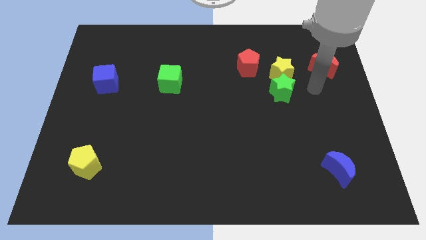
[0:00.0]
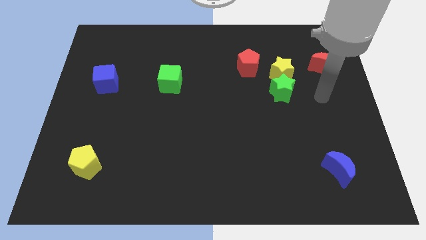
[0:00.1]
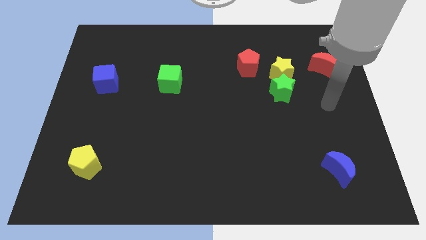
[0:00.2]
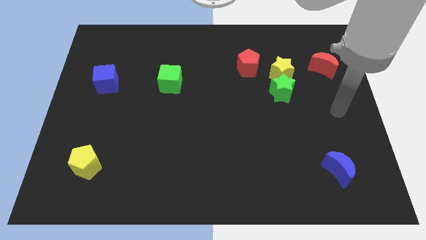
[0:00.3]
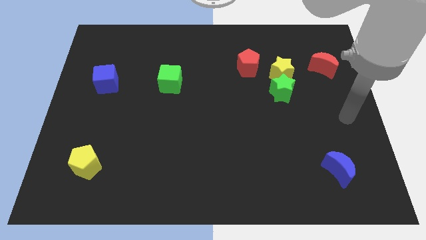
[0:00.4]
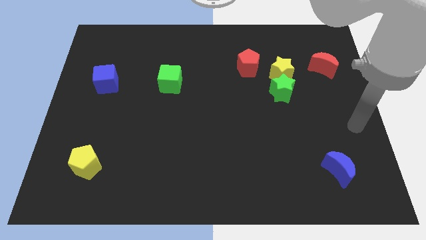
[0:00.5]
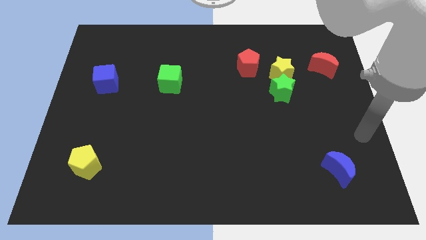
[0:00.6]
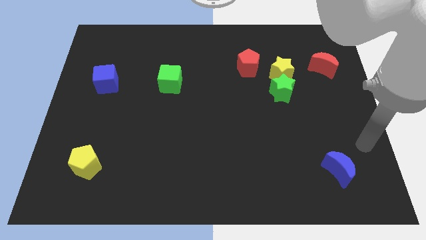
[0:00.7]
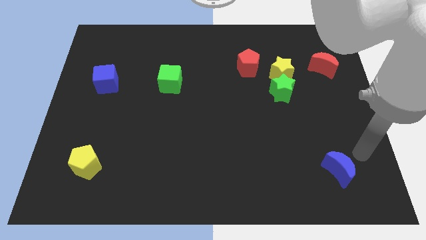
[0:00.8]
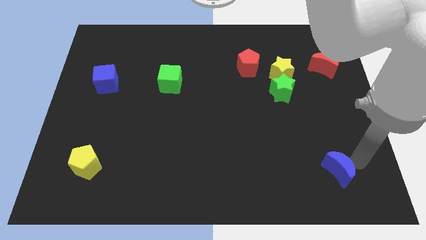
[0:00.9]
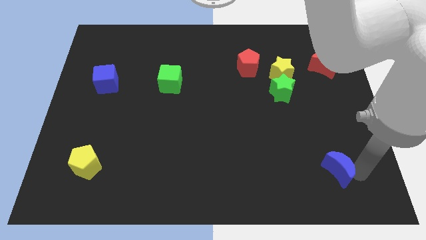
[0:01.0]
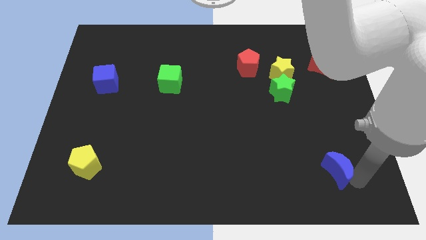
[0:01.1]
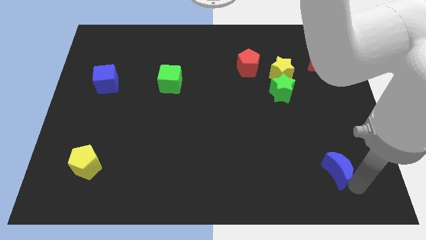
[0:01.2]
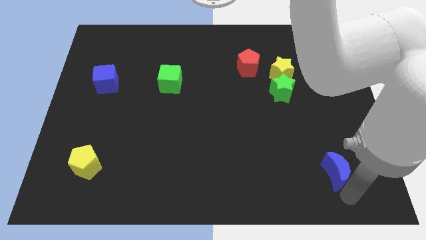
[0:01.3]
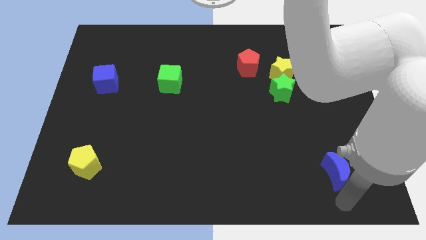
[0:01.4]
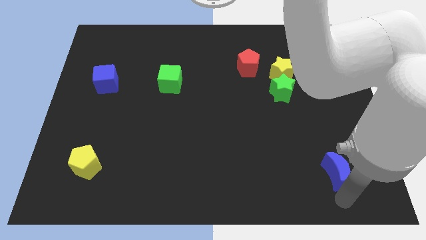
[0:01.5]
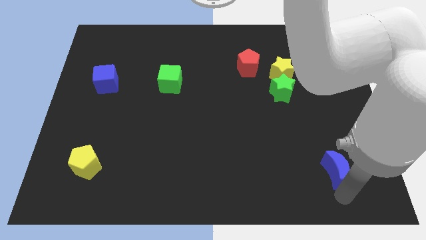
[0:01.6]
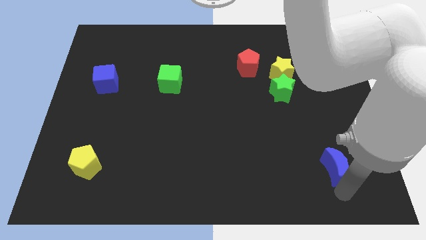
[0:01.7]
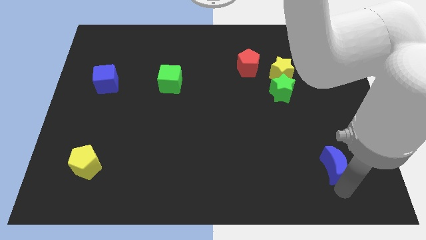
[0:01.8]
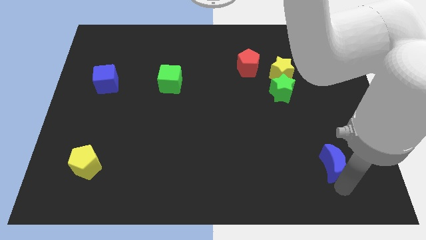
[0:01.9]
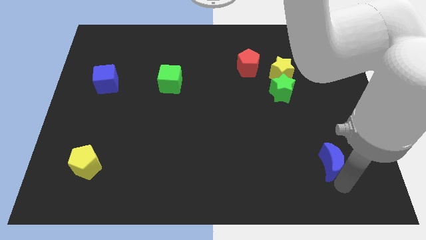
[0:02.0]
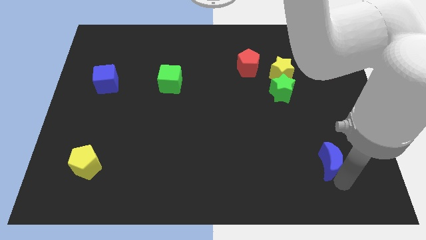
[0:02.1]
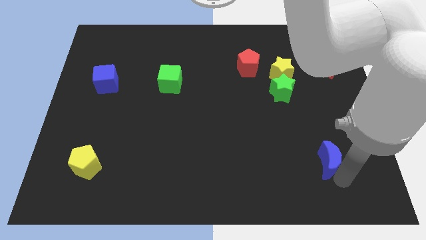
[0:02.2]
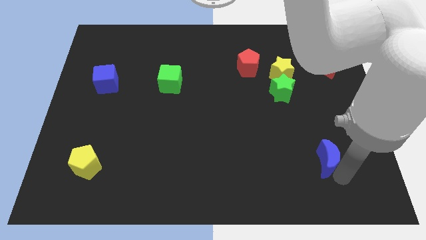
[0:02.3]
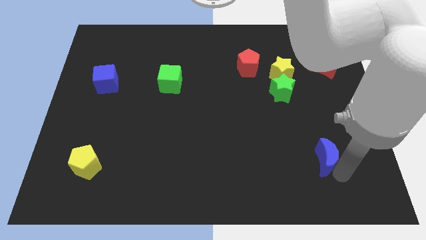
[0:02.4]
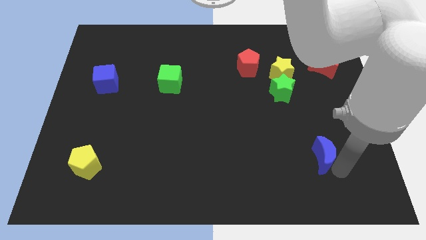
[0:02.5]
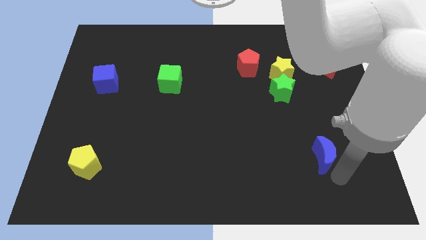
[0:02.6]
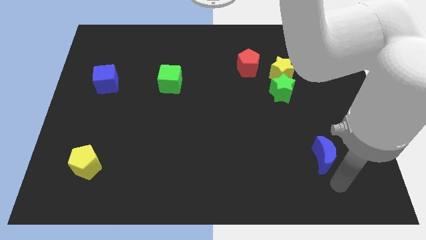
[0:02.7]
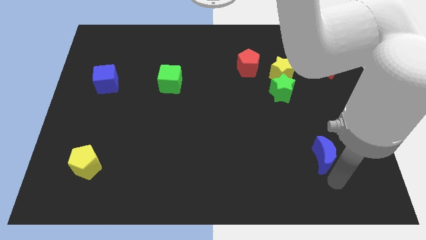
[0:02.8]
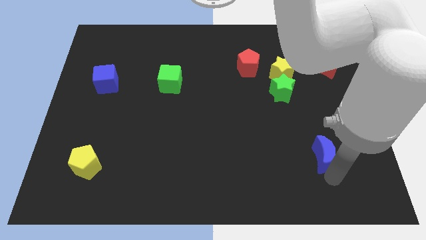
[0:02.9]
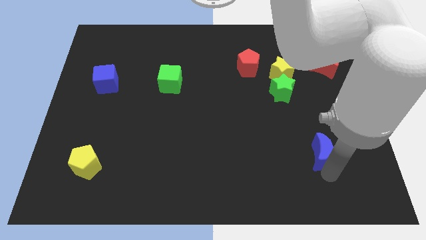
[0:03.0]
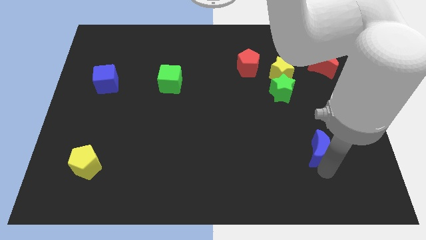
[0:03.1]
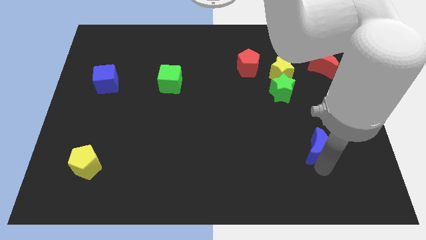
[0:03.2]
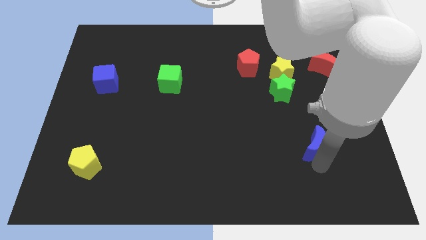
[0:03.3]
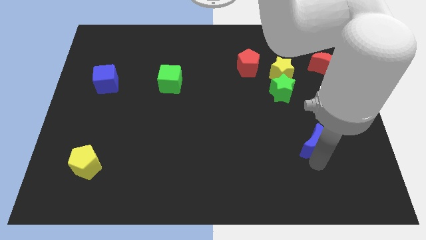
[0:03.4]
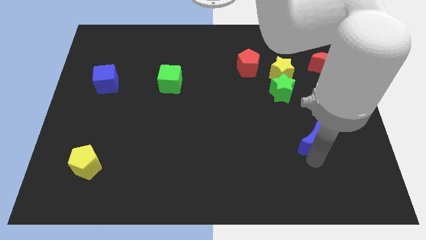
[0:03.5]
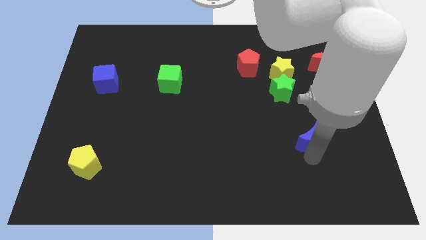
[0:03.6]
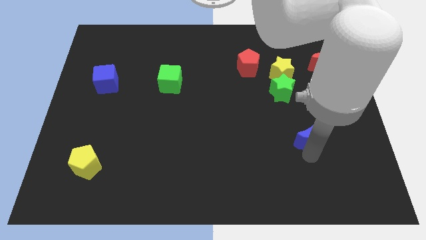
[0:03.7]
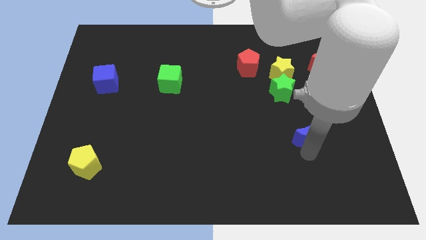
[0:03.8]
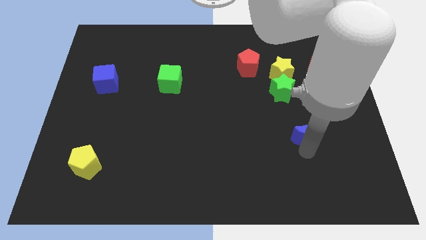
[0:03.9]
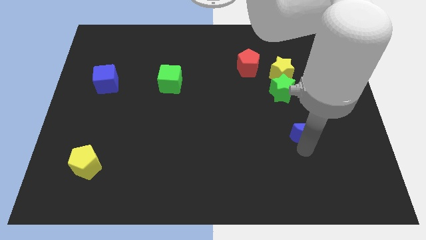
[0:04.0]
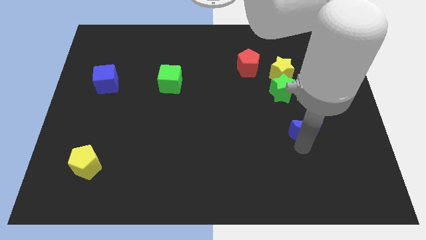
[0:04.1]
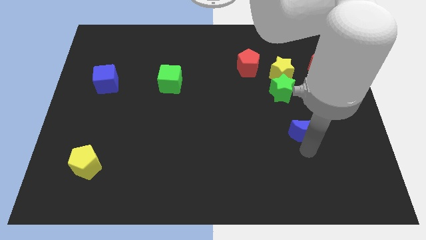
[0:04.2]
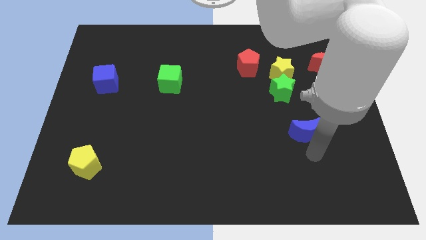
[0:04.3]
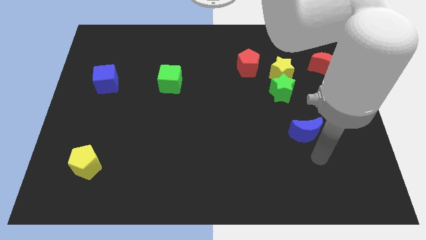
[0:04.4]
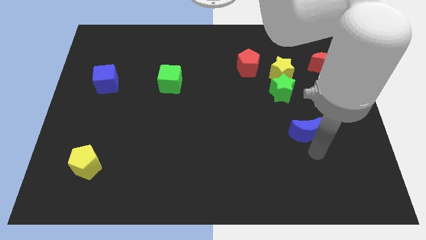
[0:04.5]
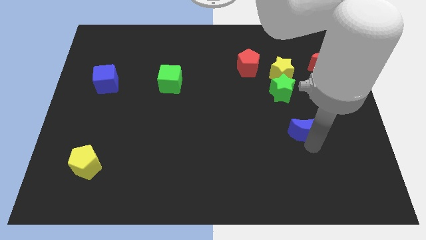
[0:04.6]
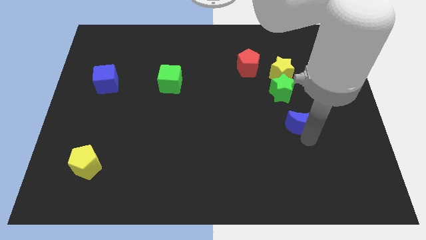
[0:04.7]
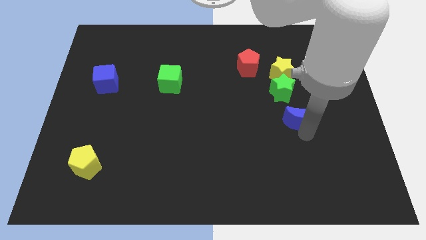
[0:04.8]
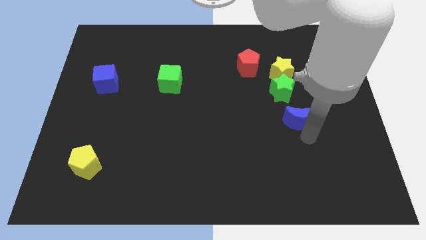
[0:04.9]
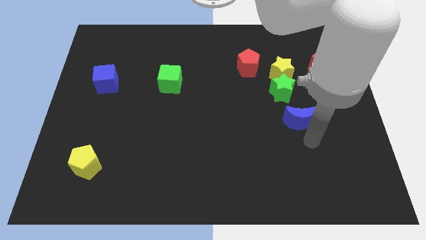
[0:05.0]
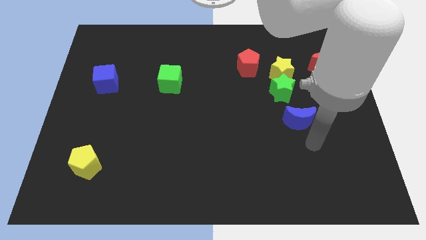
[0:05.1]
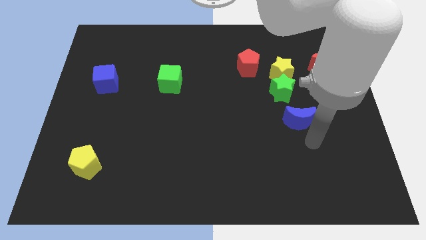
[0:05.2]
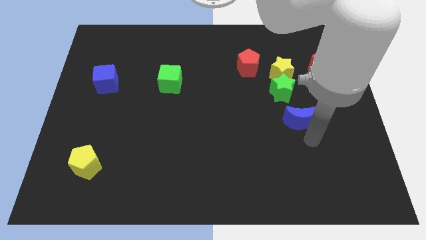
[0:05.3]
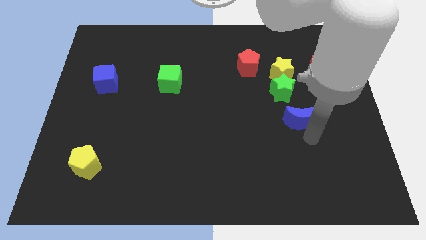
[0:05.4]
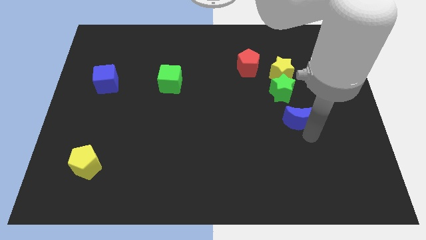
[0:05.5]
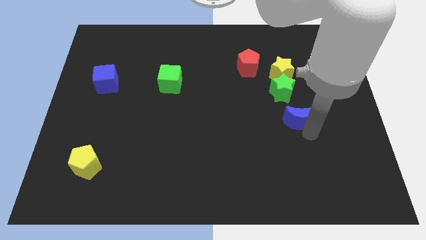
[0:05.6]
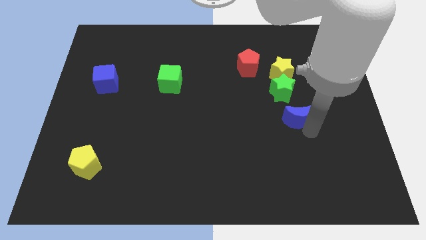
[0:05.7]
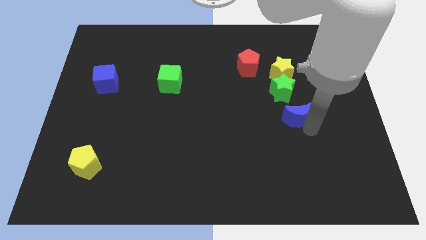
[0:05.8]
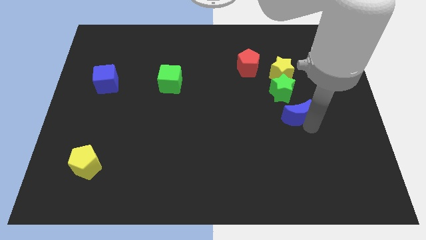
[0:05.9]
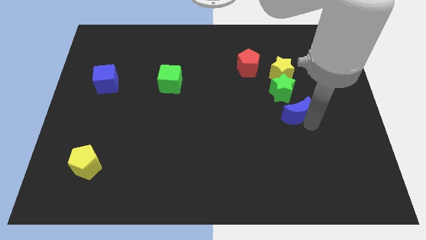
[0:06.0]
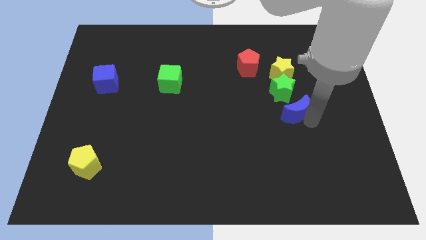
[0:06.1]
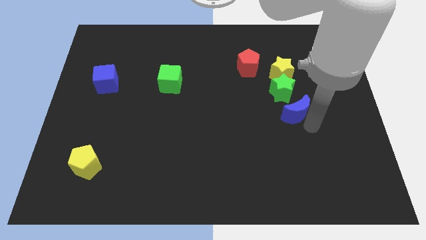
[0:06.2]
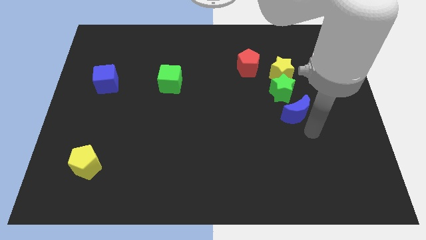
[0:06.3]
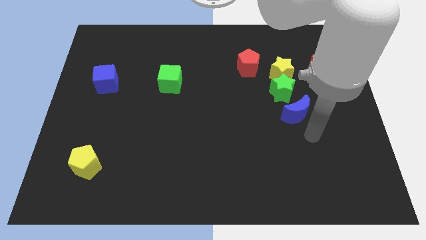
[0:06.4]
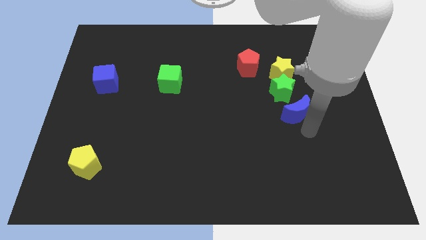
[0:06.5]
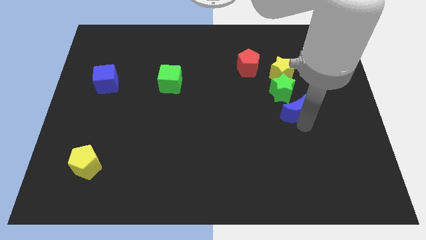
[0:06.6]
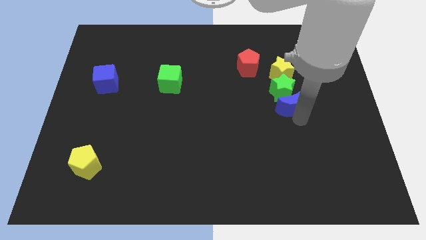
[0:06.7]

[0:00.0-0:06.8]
slide the blue moon next to the green star

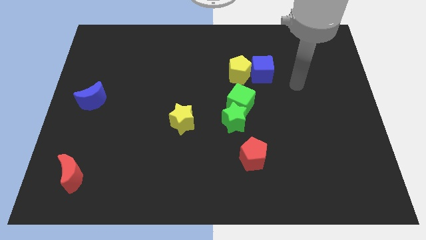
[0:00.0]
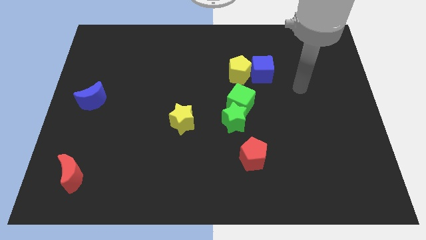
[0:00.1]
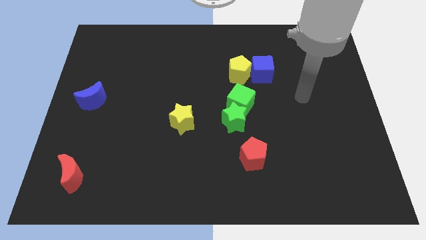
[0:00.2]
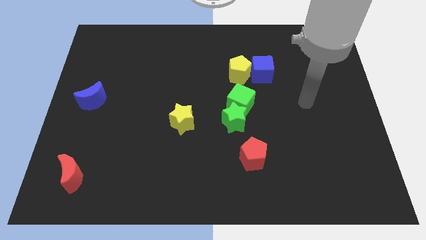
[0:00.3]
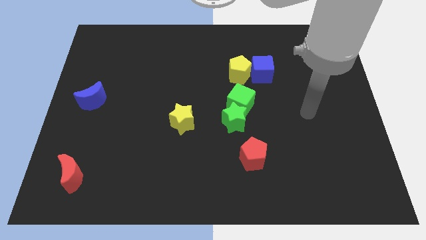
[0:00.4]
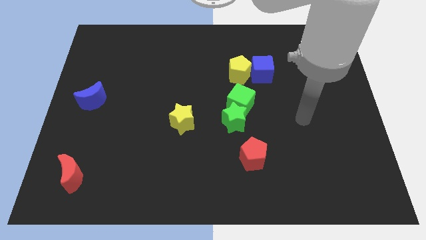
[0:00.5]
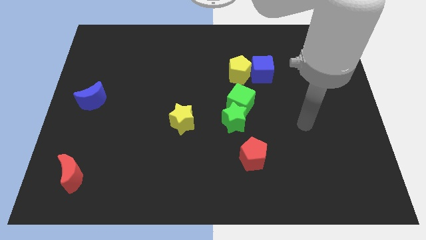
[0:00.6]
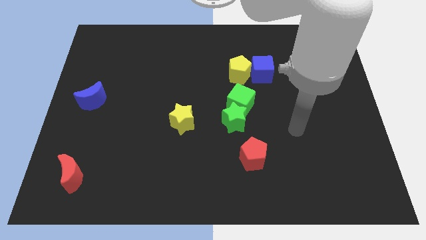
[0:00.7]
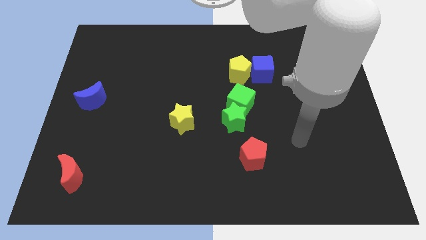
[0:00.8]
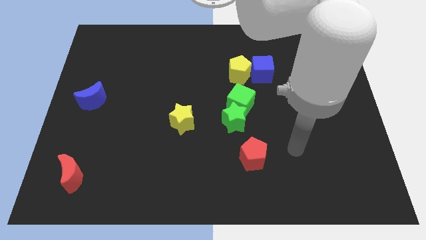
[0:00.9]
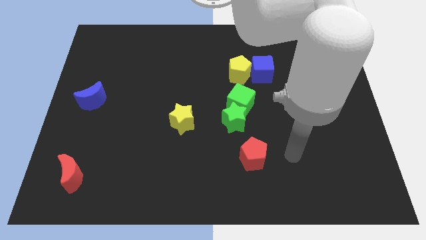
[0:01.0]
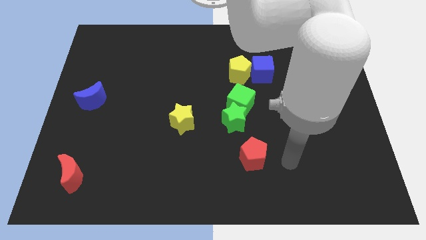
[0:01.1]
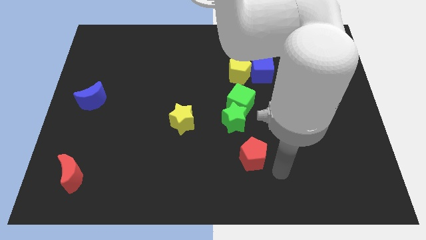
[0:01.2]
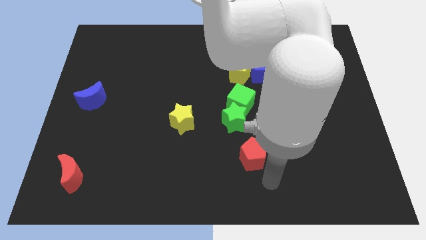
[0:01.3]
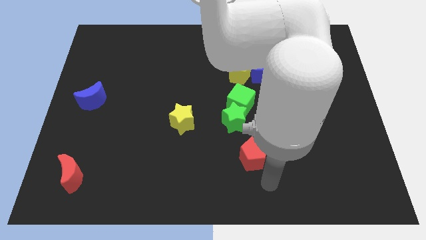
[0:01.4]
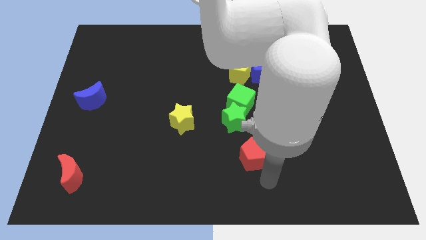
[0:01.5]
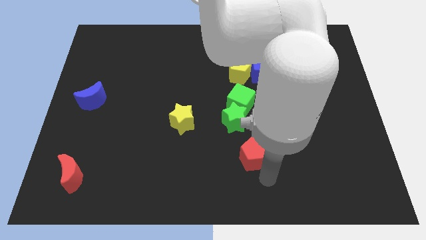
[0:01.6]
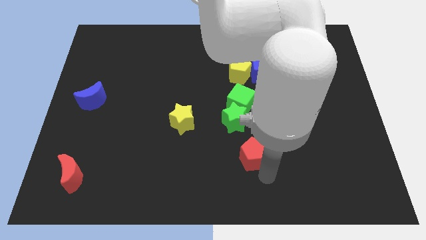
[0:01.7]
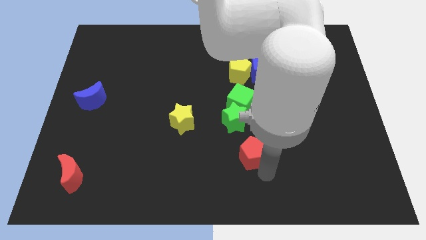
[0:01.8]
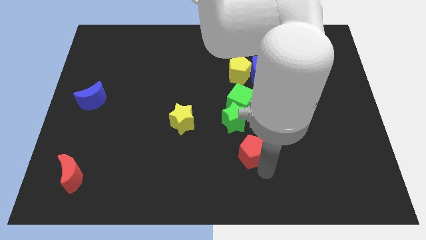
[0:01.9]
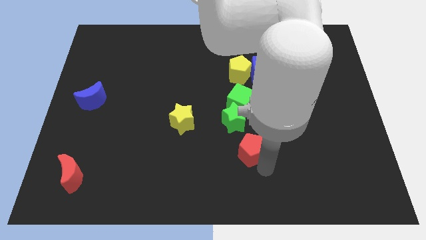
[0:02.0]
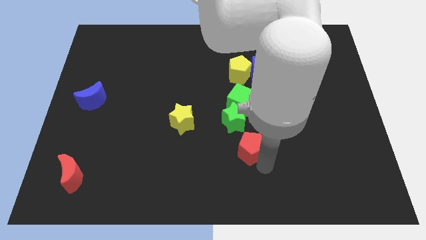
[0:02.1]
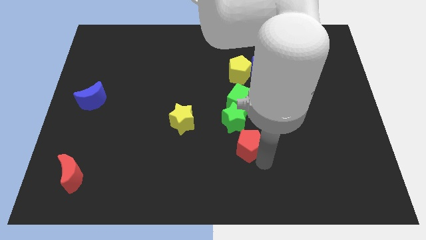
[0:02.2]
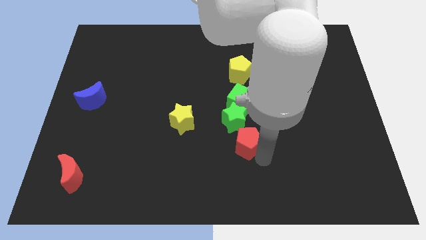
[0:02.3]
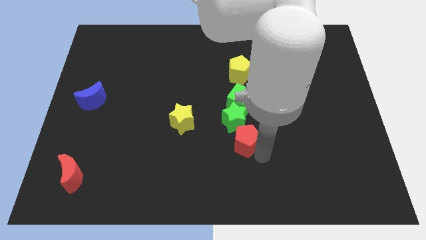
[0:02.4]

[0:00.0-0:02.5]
move the red pentagon to the green star
